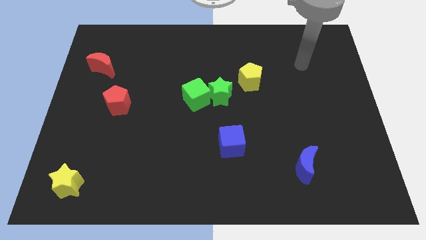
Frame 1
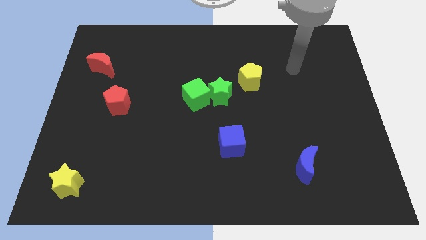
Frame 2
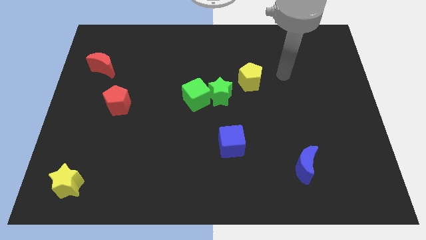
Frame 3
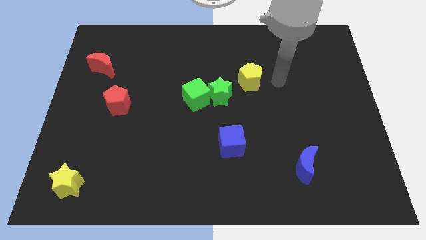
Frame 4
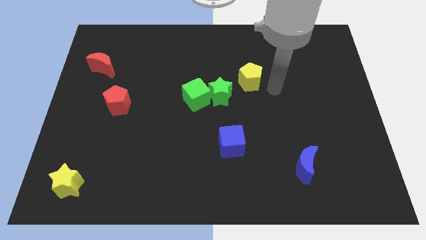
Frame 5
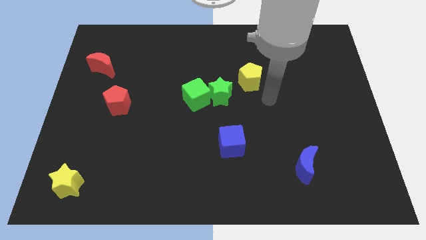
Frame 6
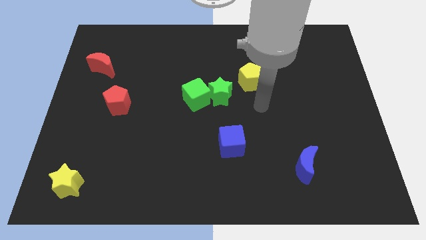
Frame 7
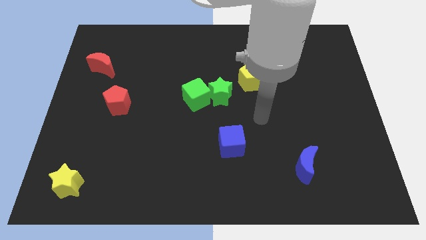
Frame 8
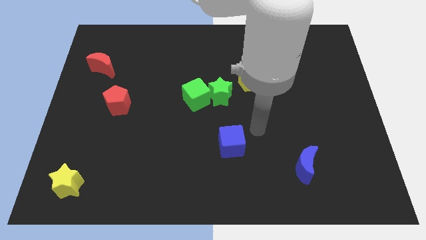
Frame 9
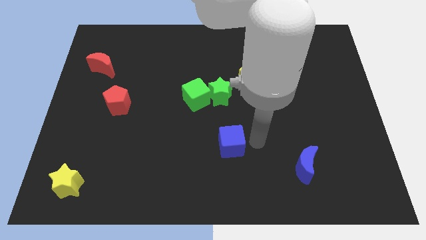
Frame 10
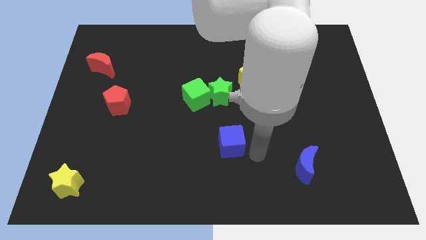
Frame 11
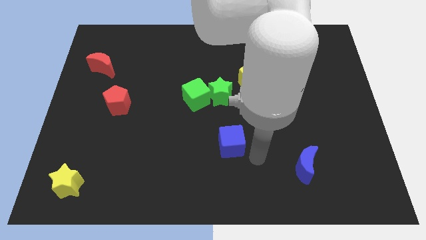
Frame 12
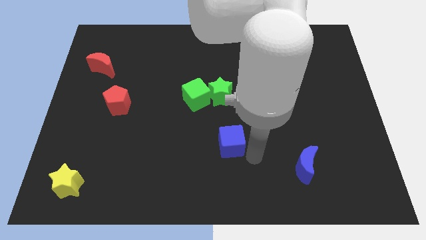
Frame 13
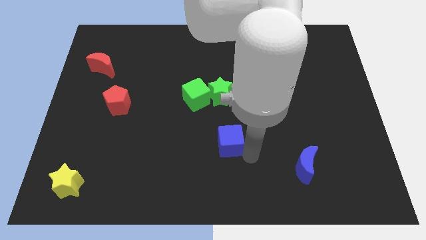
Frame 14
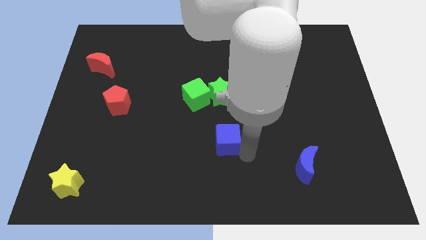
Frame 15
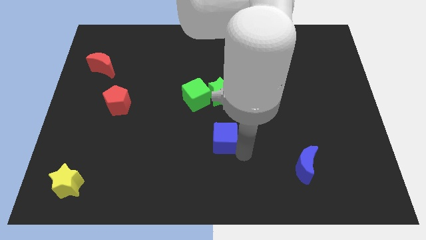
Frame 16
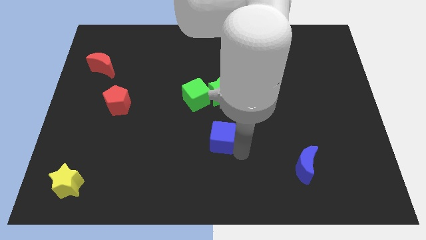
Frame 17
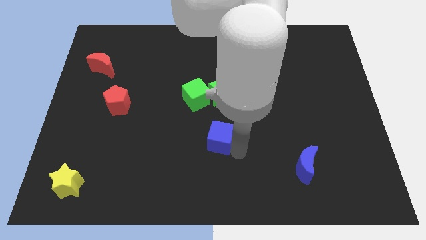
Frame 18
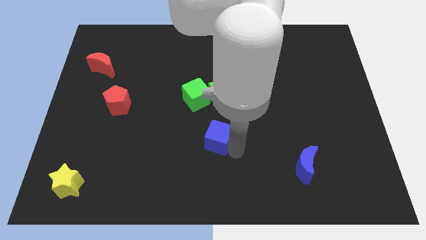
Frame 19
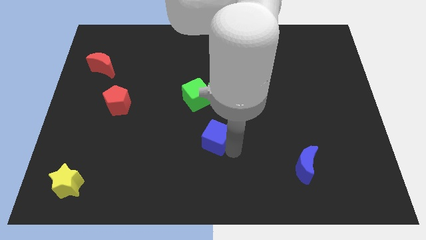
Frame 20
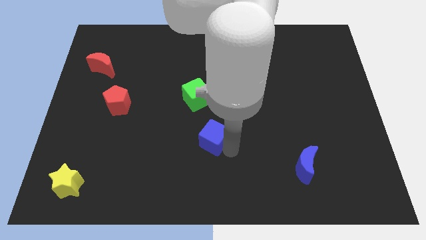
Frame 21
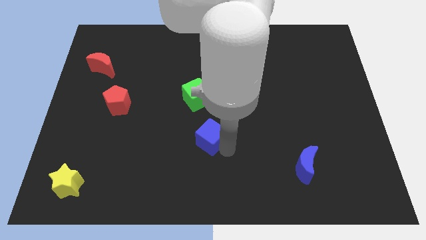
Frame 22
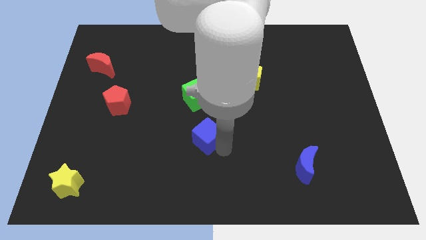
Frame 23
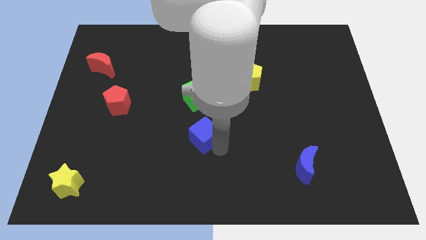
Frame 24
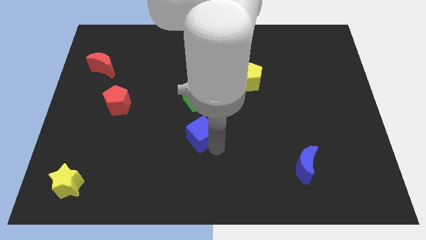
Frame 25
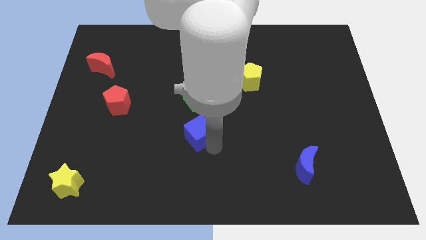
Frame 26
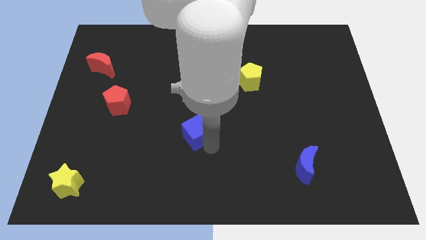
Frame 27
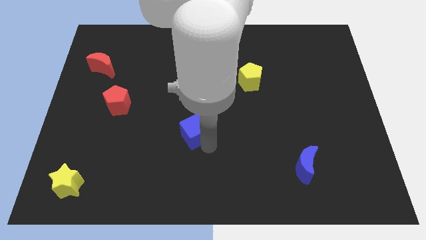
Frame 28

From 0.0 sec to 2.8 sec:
push the blue cube slightly diagonally up and left

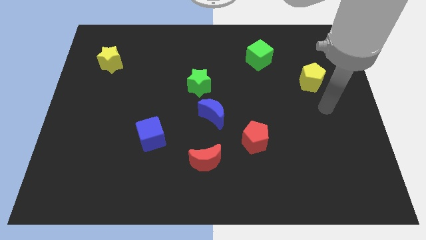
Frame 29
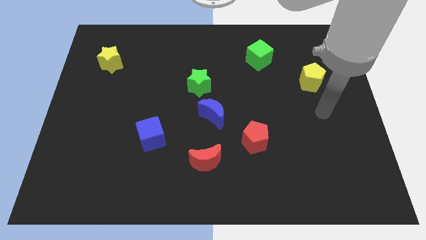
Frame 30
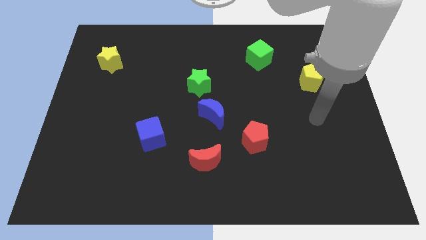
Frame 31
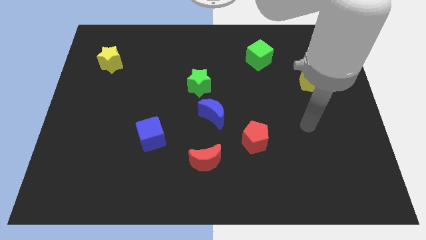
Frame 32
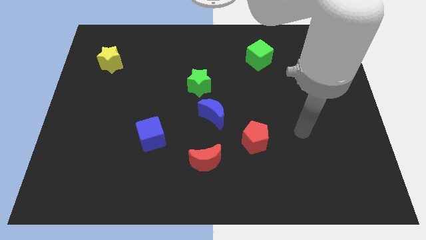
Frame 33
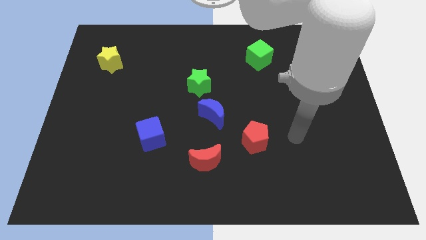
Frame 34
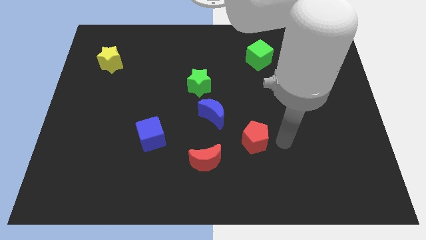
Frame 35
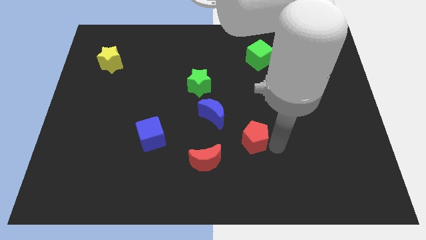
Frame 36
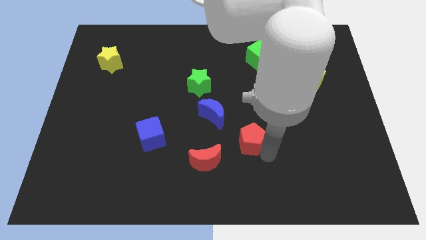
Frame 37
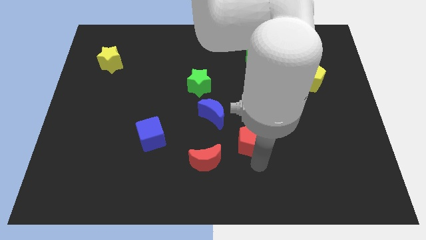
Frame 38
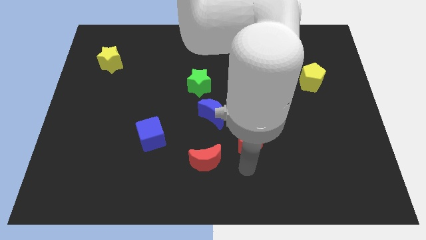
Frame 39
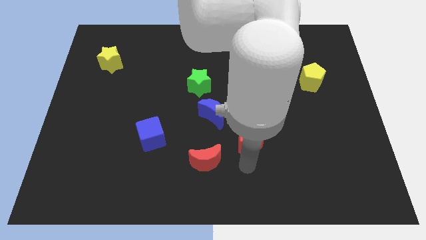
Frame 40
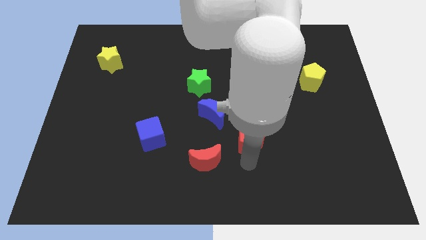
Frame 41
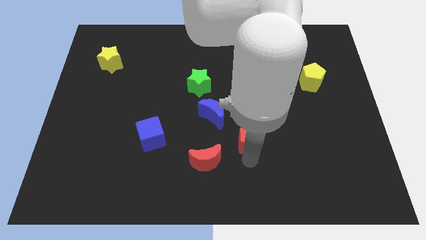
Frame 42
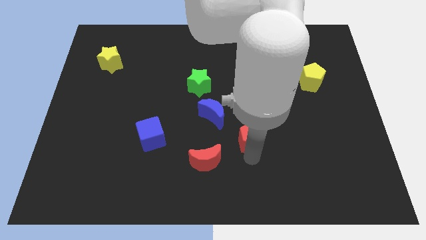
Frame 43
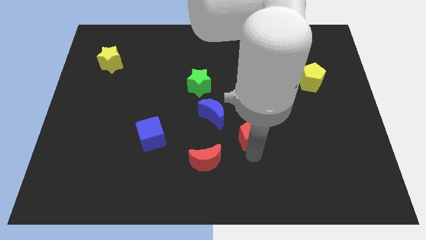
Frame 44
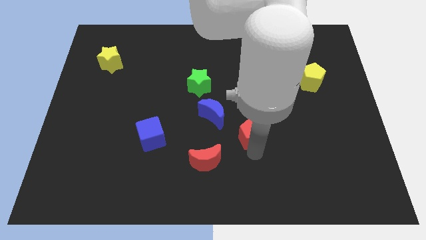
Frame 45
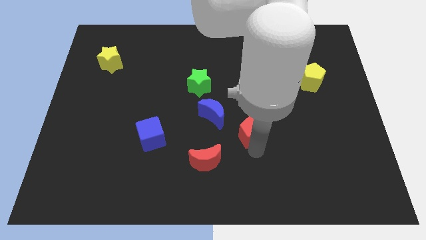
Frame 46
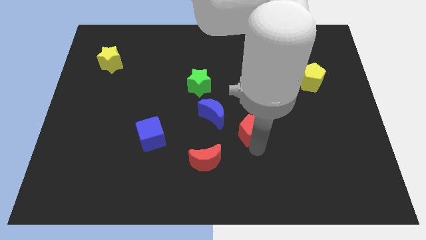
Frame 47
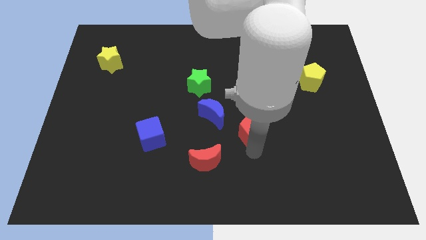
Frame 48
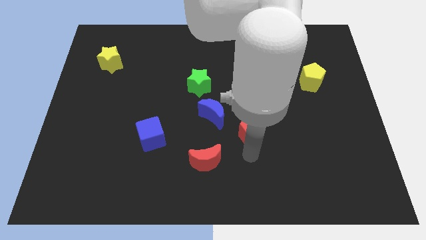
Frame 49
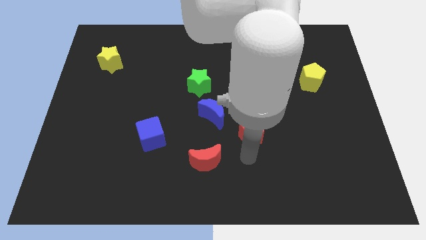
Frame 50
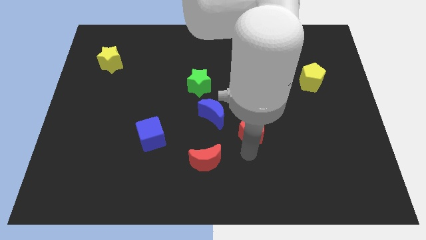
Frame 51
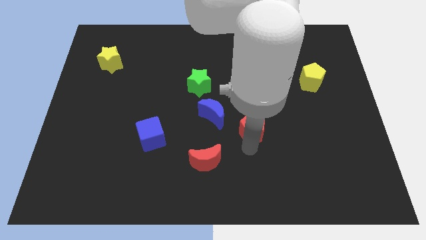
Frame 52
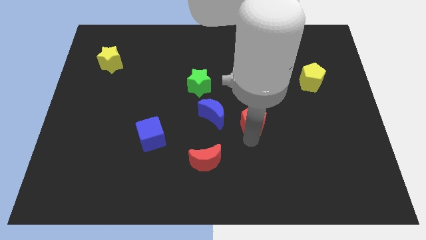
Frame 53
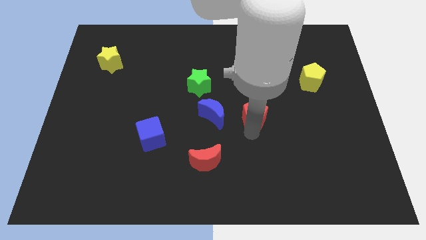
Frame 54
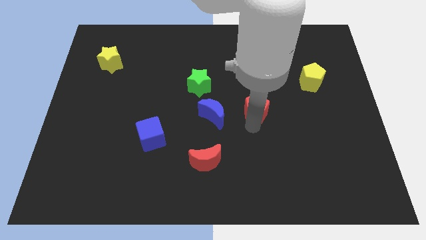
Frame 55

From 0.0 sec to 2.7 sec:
slightly push the red pentagon upwards

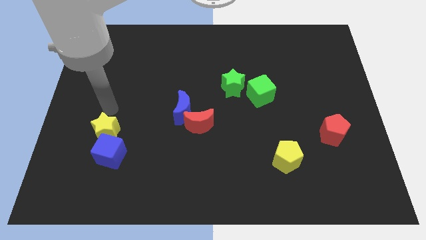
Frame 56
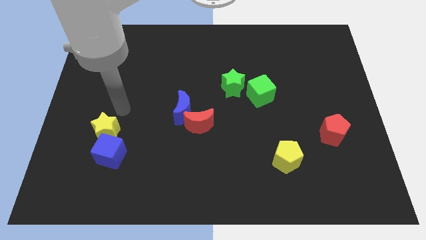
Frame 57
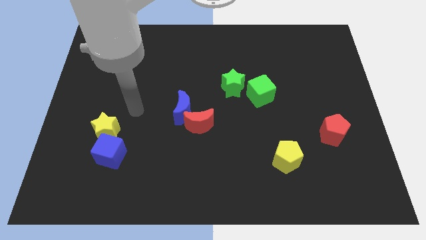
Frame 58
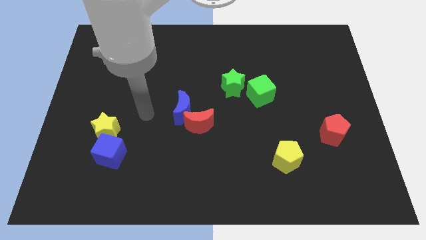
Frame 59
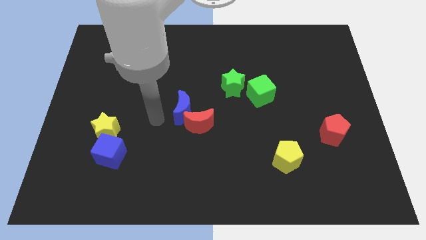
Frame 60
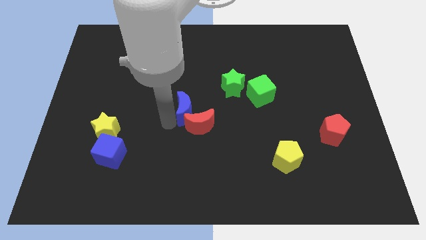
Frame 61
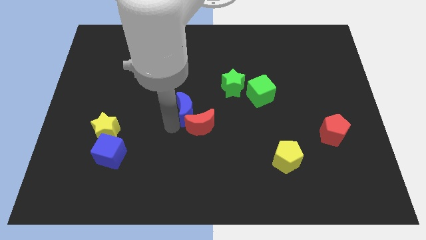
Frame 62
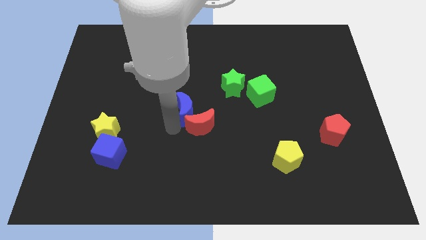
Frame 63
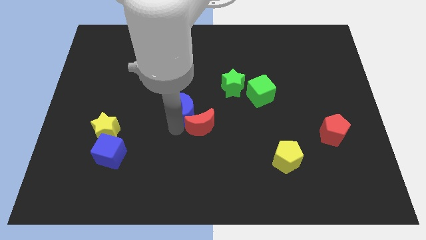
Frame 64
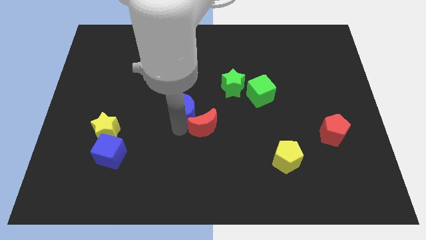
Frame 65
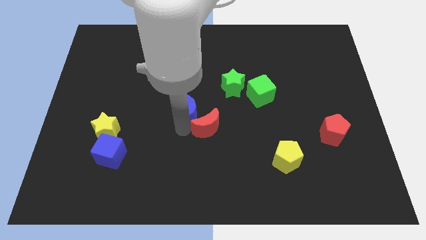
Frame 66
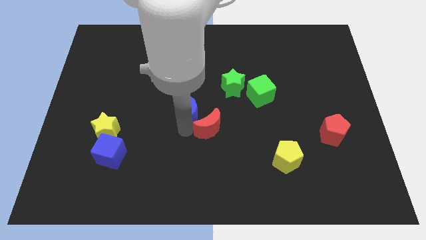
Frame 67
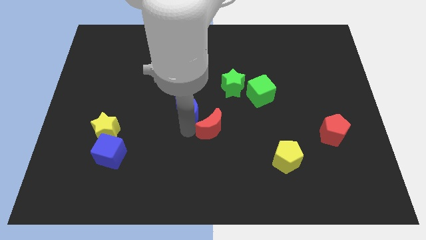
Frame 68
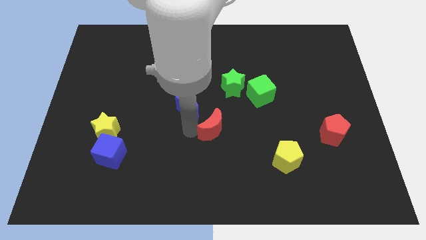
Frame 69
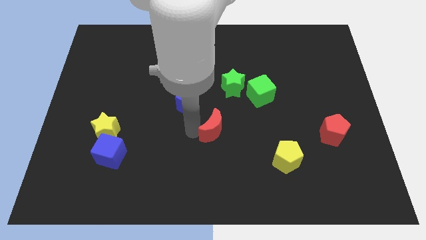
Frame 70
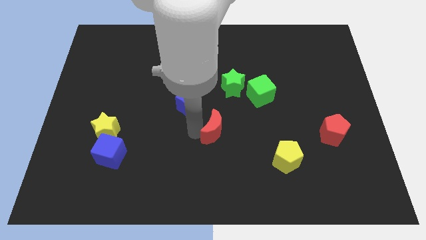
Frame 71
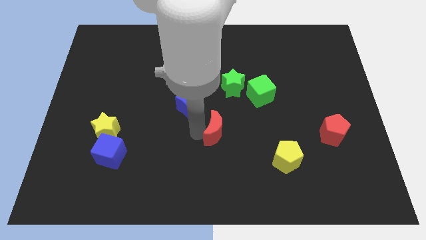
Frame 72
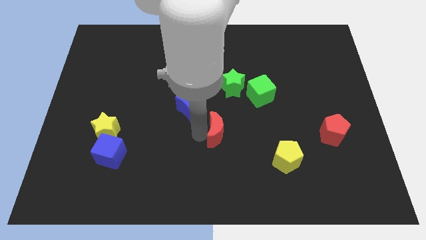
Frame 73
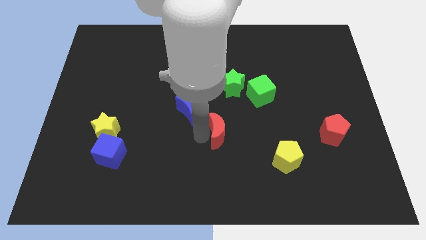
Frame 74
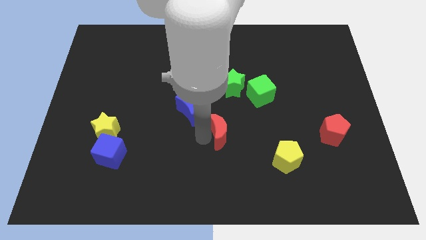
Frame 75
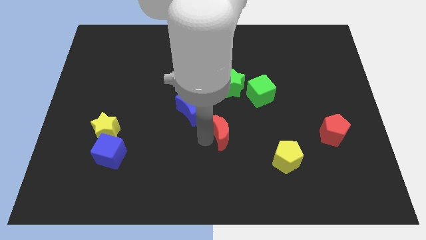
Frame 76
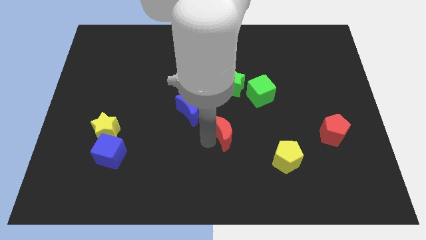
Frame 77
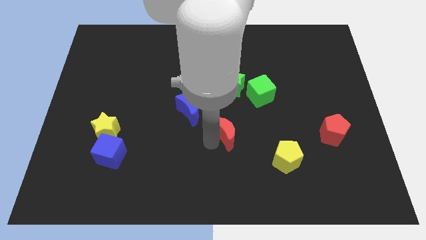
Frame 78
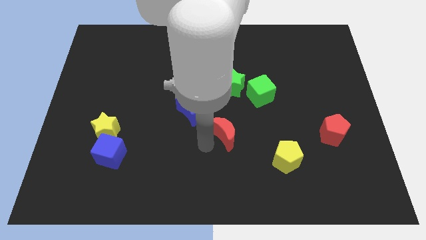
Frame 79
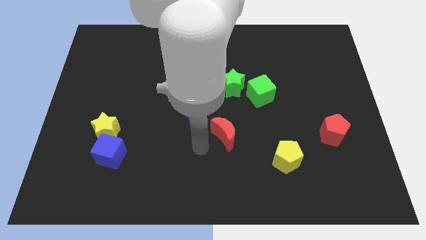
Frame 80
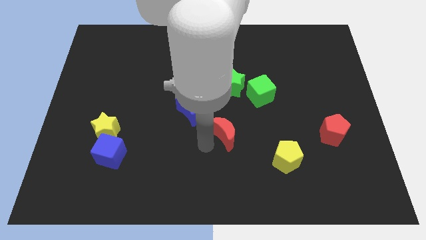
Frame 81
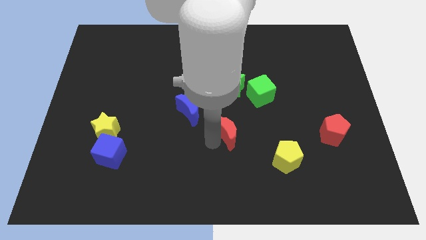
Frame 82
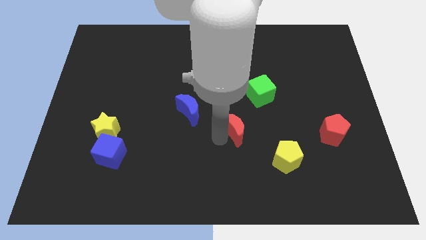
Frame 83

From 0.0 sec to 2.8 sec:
slightly push the red moon right
